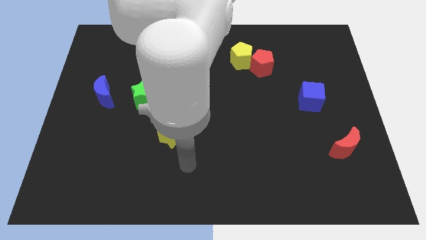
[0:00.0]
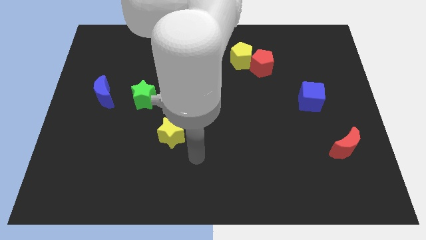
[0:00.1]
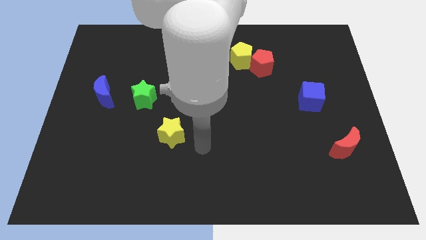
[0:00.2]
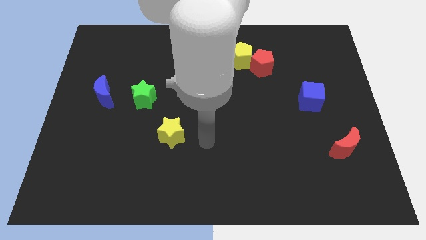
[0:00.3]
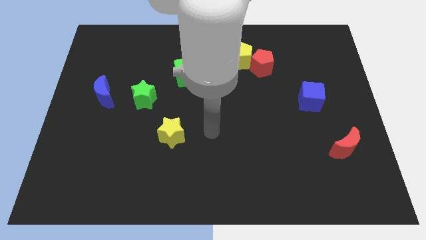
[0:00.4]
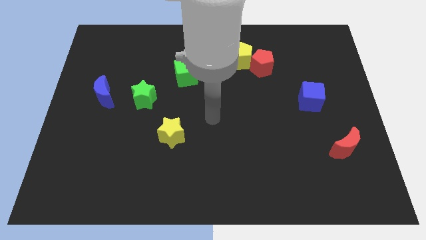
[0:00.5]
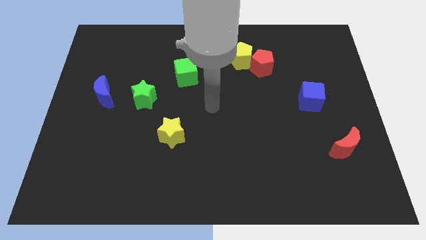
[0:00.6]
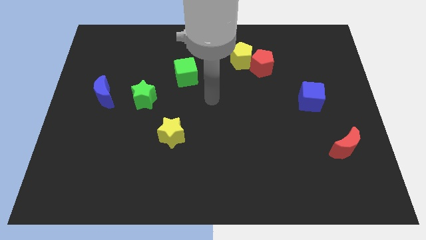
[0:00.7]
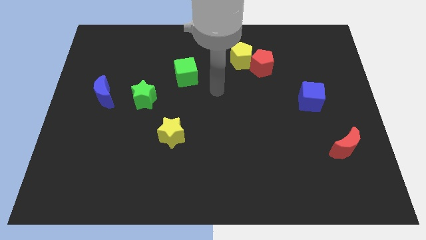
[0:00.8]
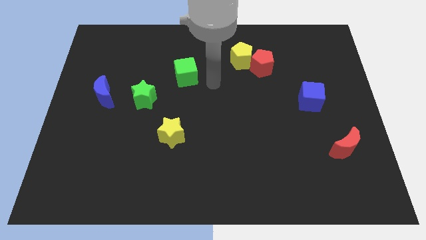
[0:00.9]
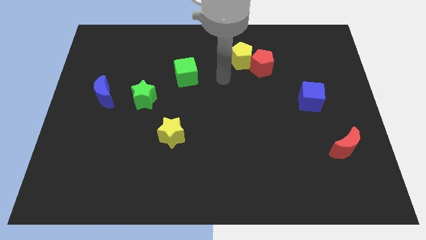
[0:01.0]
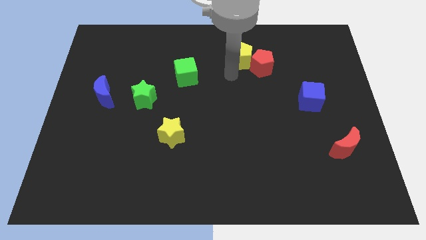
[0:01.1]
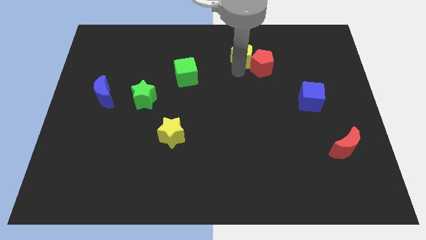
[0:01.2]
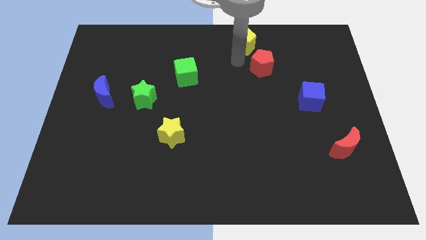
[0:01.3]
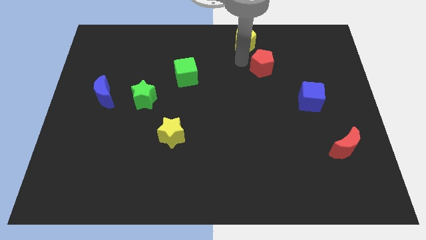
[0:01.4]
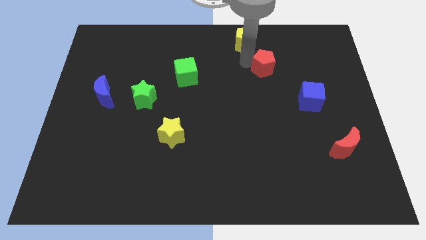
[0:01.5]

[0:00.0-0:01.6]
move the red pentagon away from the yellow pentagon

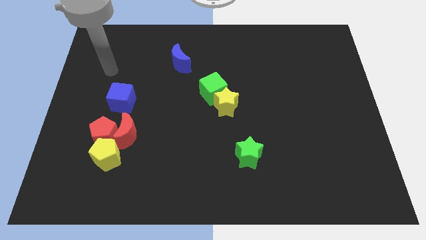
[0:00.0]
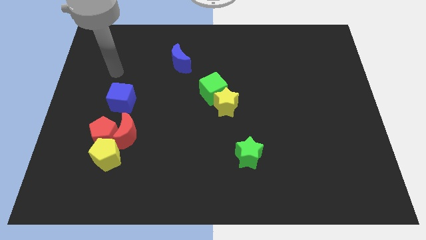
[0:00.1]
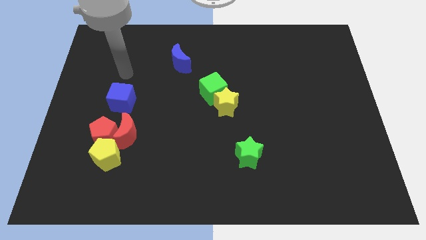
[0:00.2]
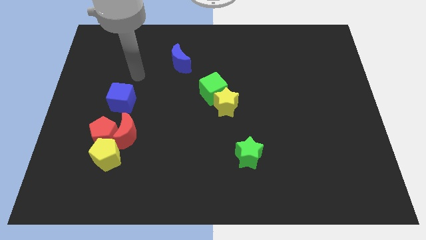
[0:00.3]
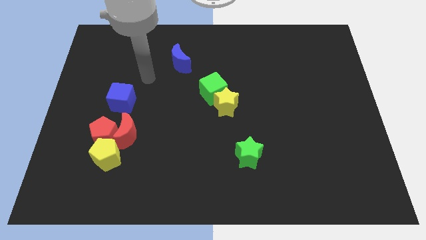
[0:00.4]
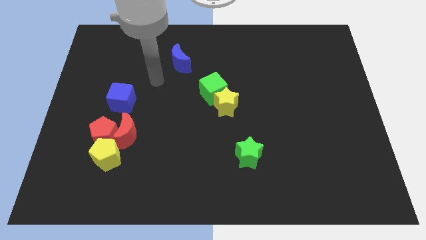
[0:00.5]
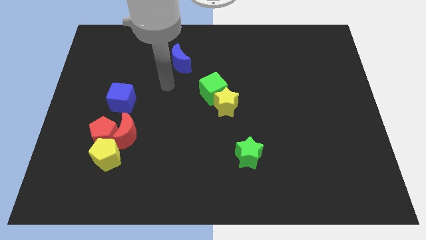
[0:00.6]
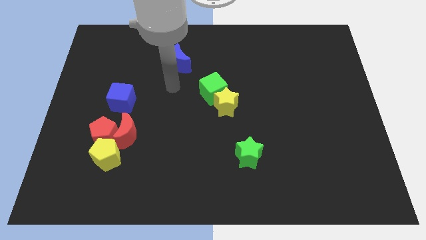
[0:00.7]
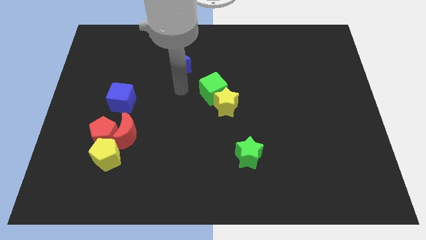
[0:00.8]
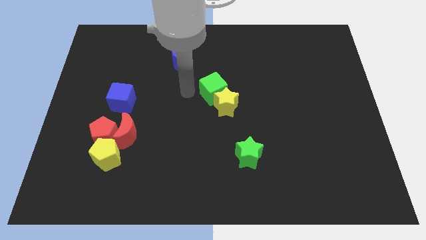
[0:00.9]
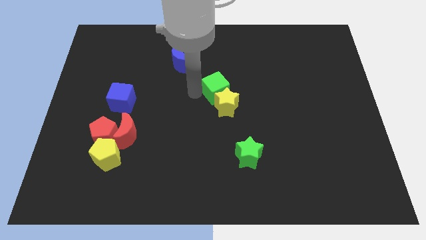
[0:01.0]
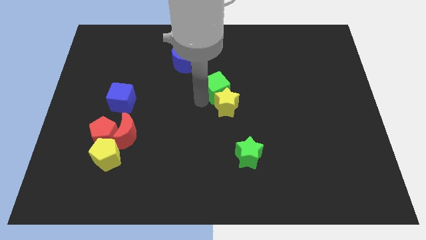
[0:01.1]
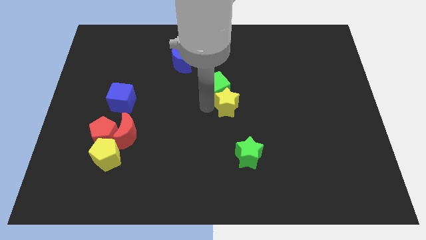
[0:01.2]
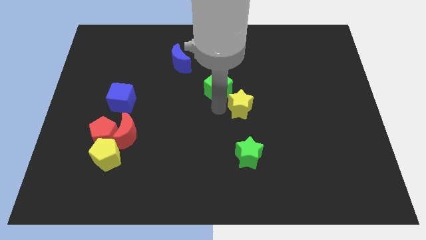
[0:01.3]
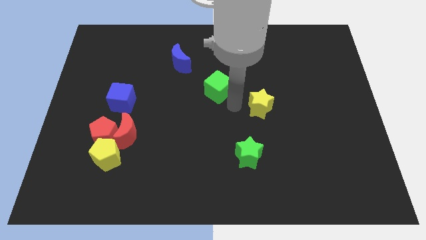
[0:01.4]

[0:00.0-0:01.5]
move the green cube away from the yellow star

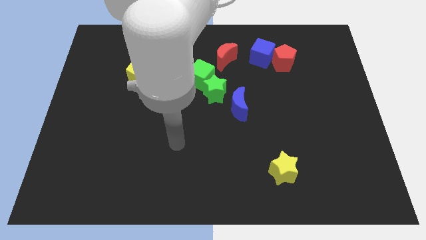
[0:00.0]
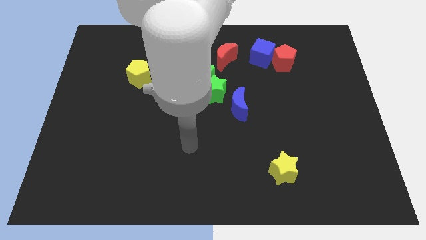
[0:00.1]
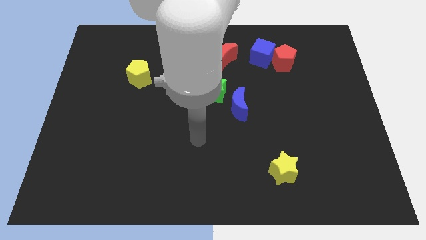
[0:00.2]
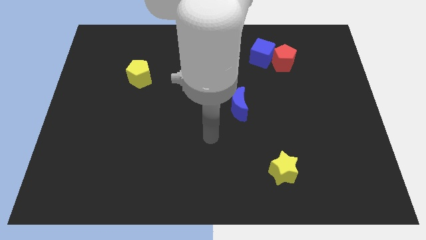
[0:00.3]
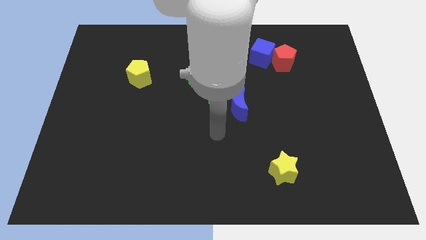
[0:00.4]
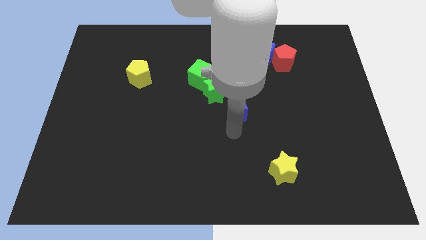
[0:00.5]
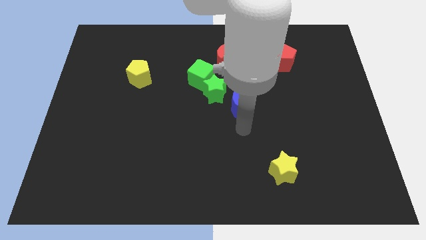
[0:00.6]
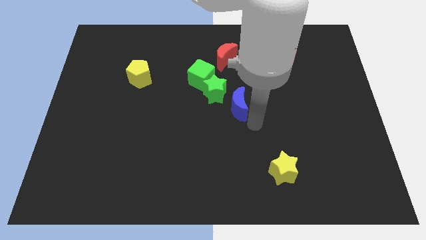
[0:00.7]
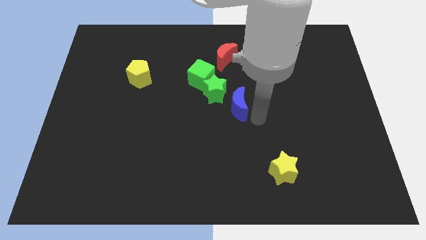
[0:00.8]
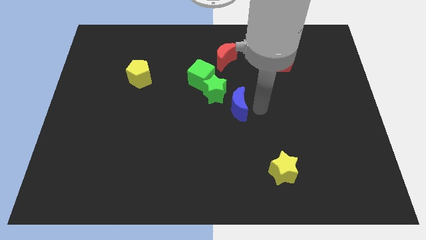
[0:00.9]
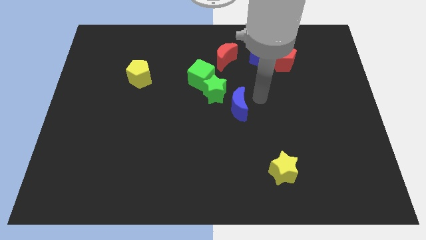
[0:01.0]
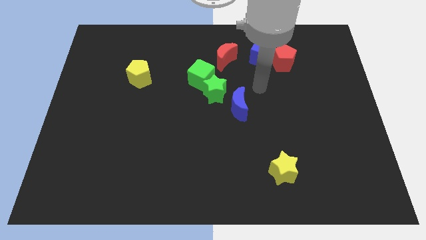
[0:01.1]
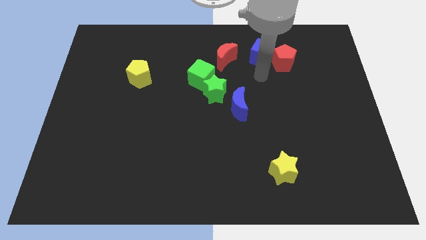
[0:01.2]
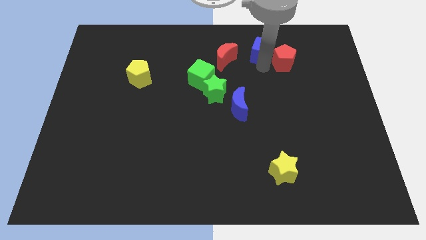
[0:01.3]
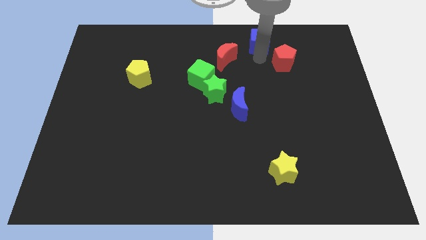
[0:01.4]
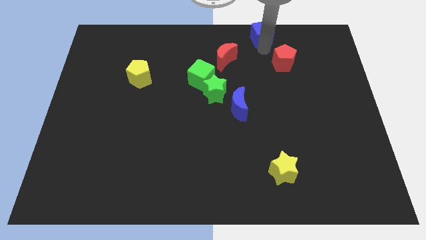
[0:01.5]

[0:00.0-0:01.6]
pull the red pentagon apart from the blue cube

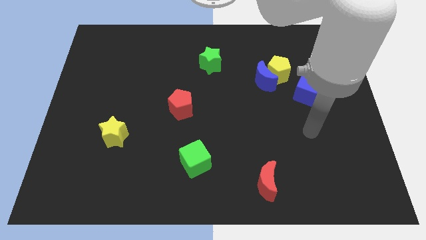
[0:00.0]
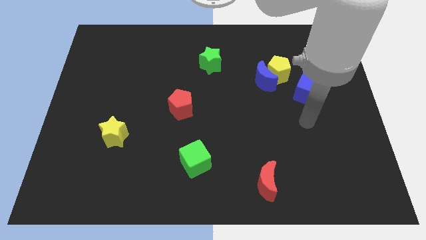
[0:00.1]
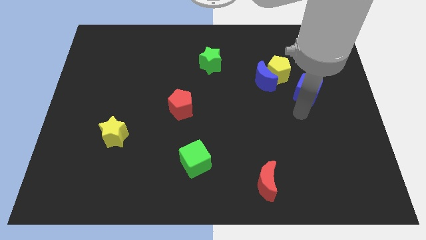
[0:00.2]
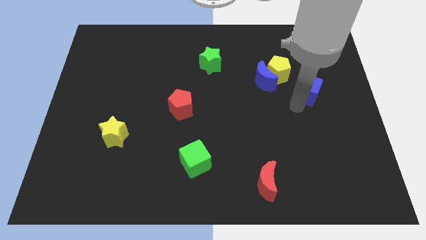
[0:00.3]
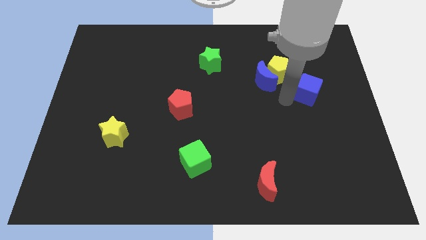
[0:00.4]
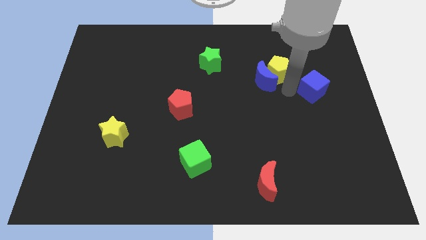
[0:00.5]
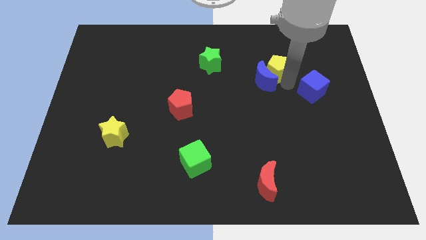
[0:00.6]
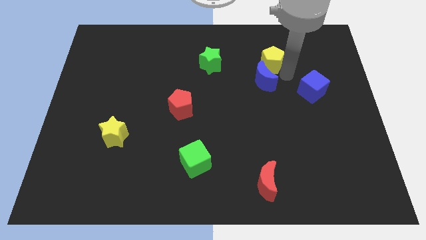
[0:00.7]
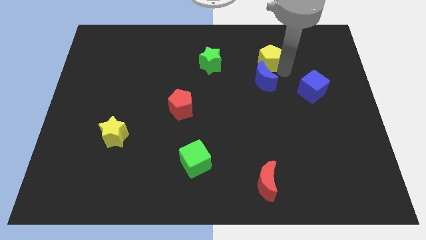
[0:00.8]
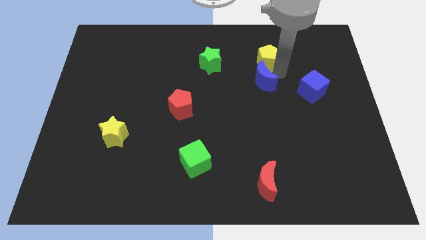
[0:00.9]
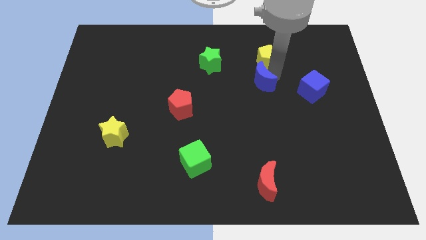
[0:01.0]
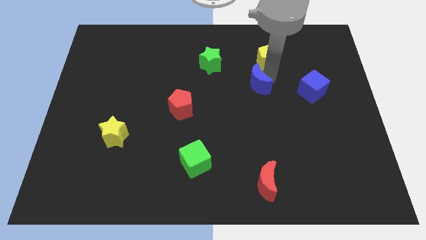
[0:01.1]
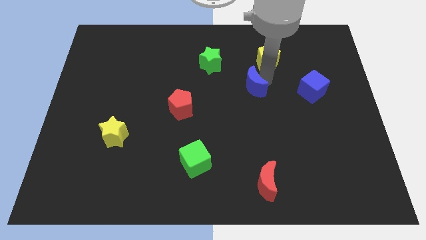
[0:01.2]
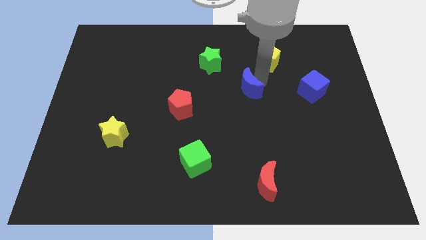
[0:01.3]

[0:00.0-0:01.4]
pull the blue moon apart from the yellow pentagon

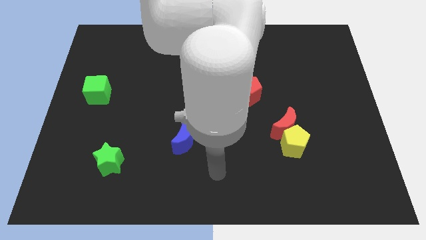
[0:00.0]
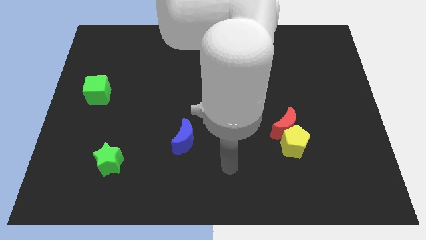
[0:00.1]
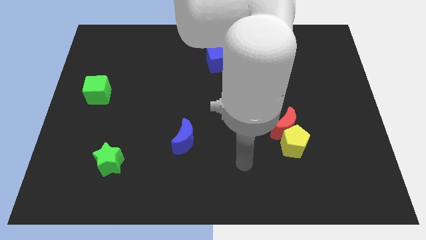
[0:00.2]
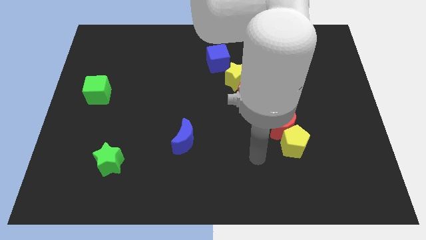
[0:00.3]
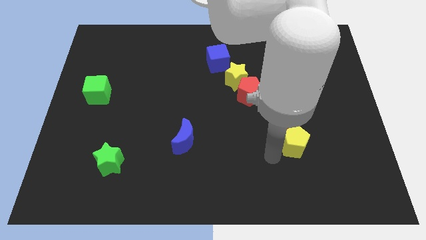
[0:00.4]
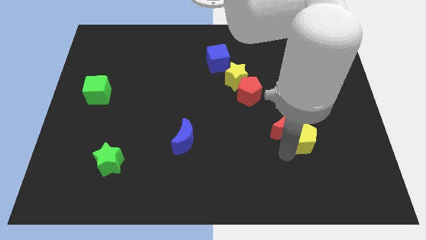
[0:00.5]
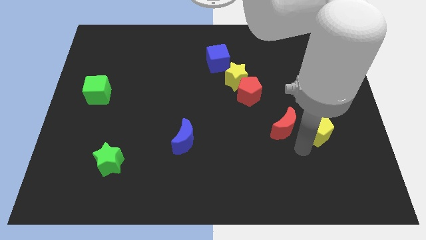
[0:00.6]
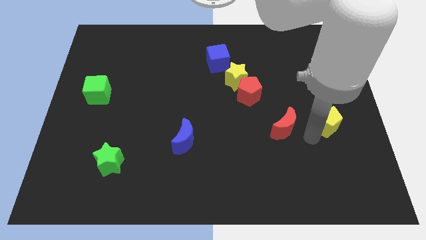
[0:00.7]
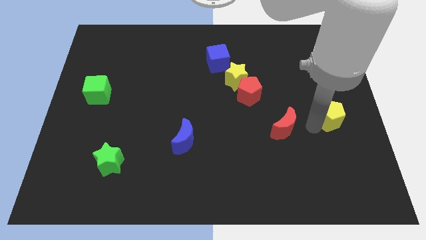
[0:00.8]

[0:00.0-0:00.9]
separate the red moon from the yellow pentagon

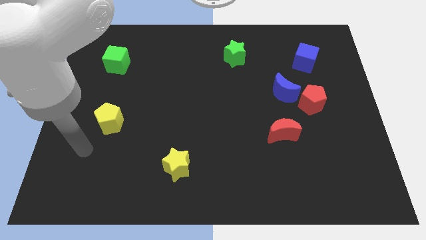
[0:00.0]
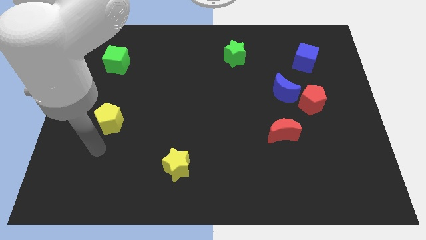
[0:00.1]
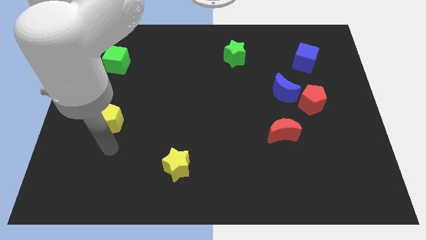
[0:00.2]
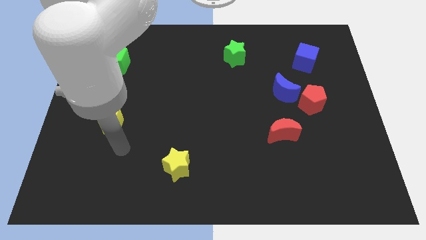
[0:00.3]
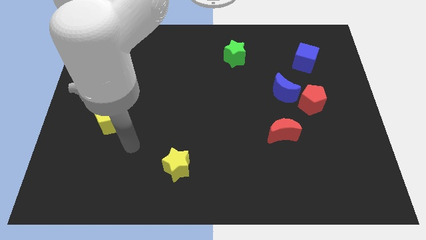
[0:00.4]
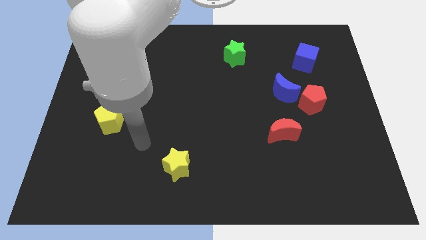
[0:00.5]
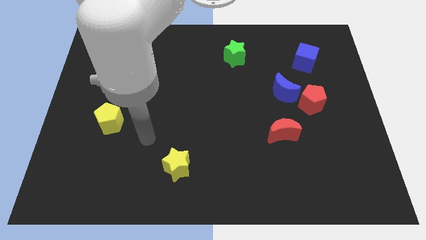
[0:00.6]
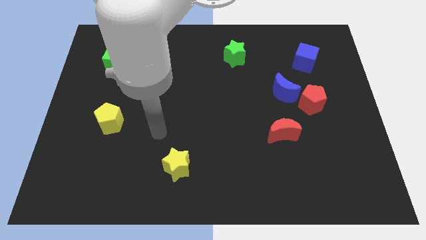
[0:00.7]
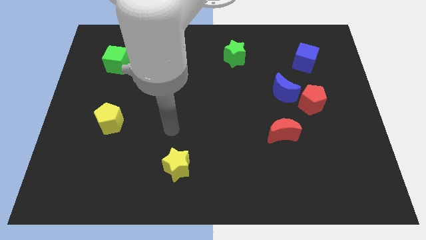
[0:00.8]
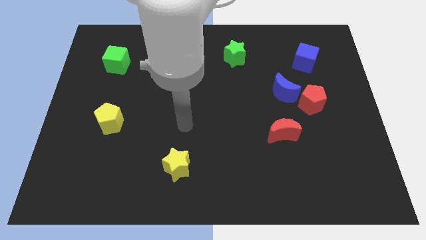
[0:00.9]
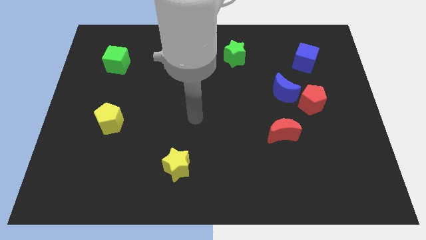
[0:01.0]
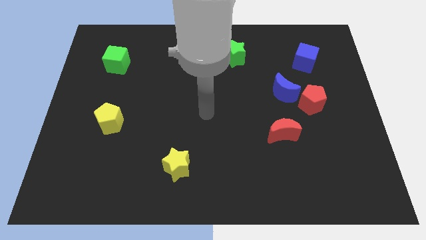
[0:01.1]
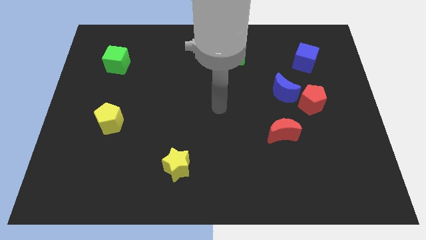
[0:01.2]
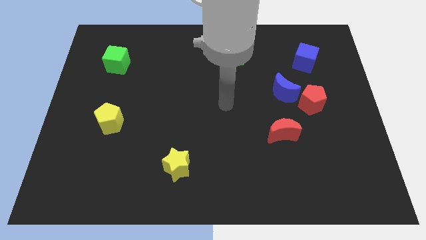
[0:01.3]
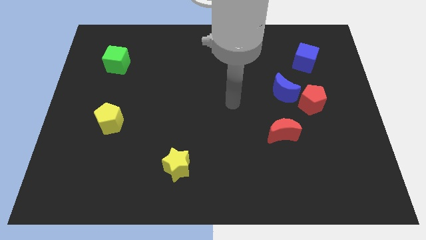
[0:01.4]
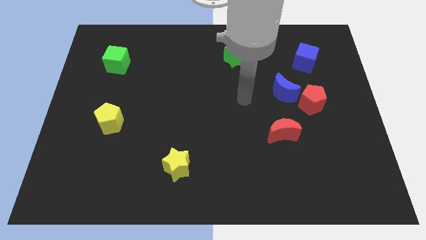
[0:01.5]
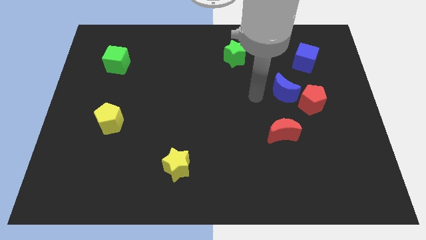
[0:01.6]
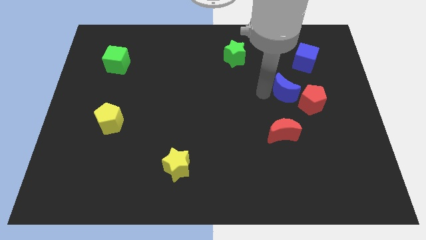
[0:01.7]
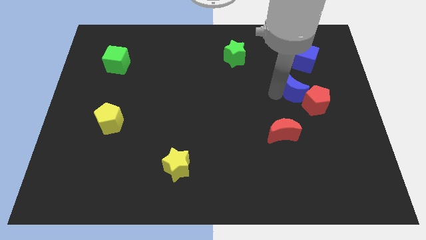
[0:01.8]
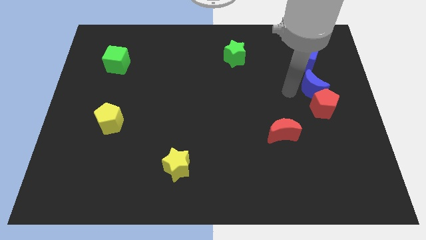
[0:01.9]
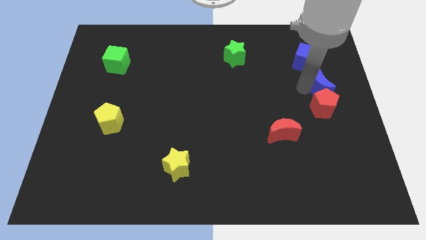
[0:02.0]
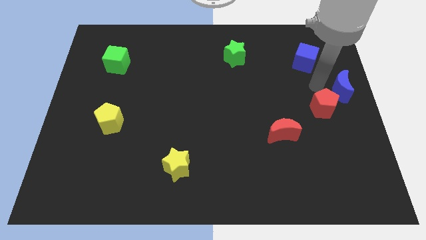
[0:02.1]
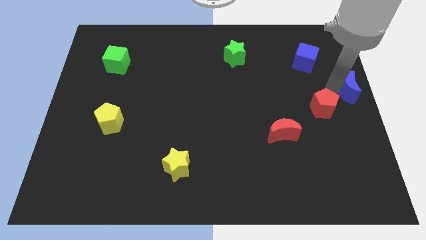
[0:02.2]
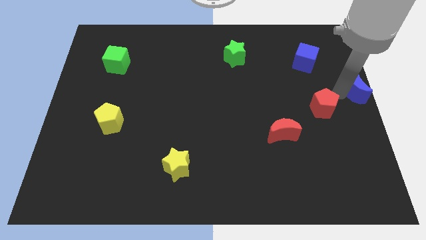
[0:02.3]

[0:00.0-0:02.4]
pull the red pentagon apart from the blue moon
